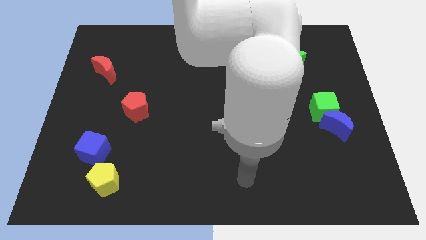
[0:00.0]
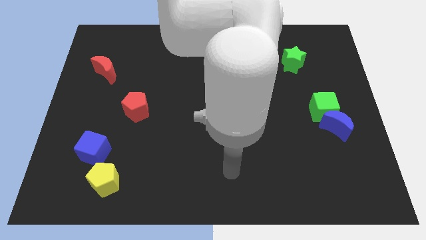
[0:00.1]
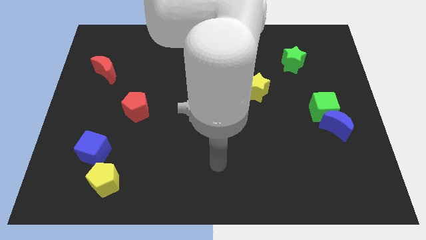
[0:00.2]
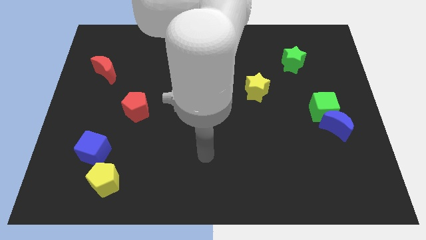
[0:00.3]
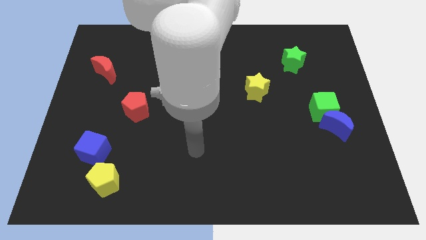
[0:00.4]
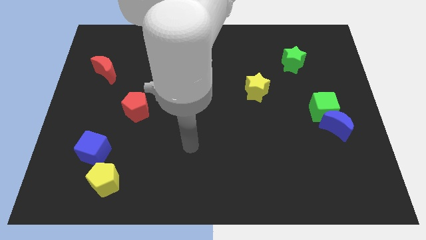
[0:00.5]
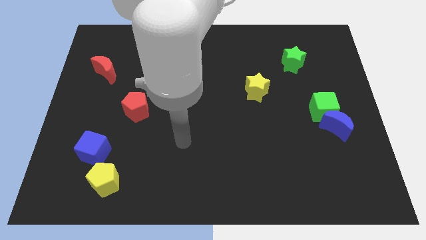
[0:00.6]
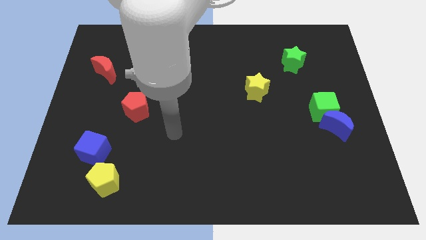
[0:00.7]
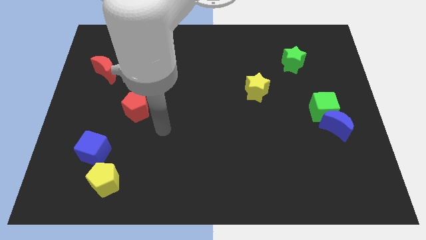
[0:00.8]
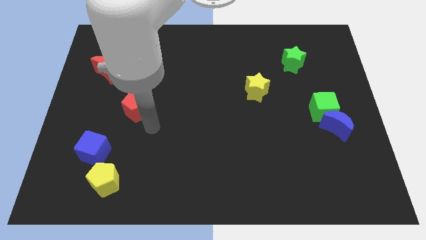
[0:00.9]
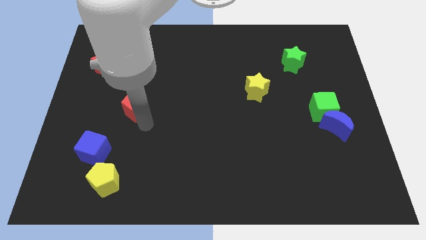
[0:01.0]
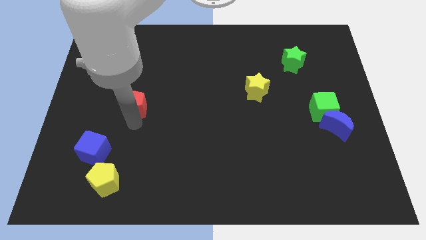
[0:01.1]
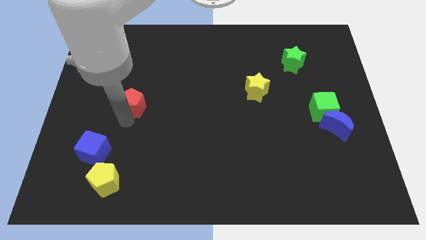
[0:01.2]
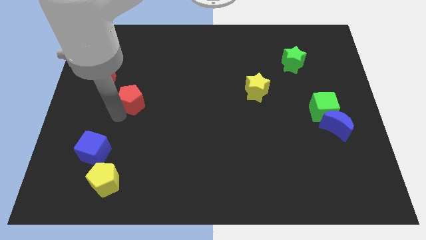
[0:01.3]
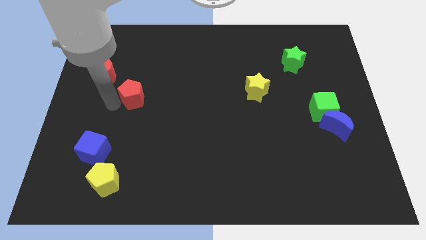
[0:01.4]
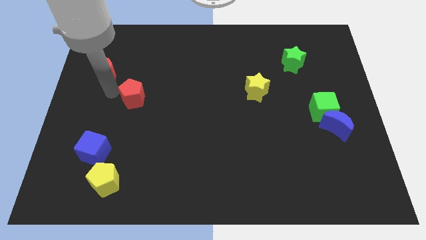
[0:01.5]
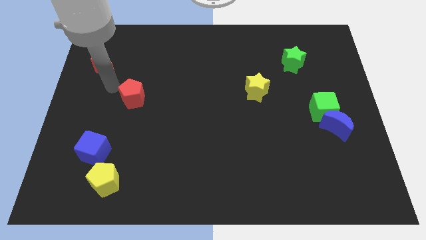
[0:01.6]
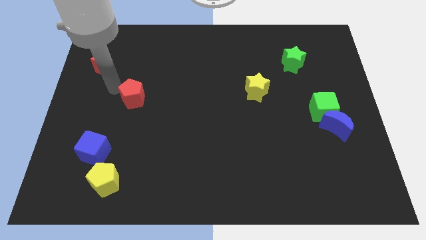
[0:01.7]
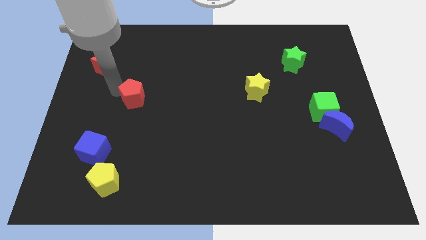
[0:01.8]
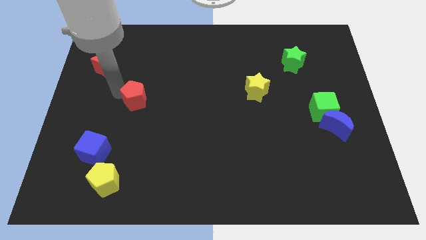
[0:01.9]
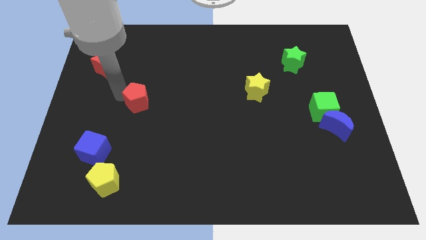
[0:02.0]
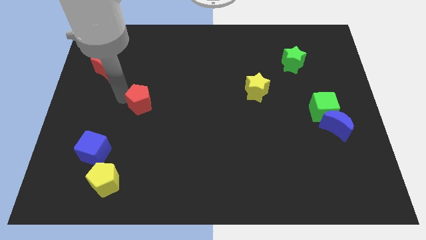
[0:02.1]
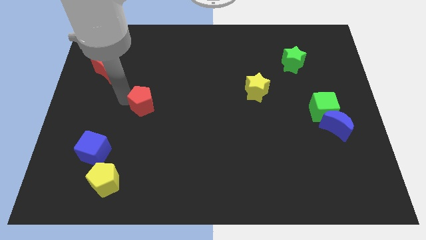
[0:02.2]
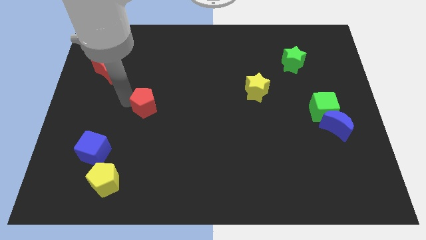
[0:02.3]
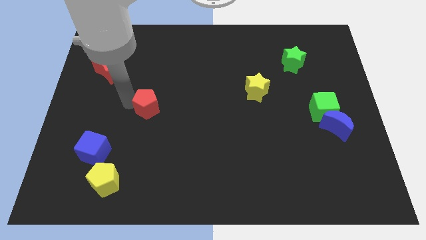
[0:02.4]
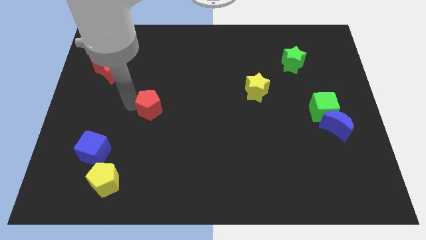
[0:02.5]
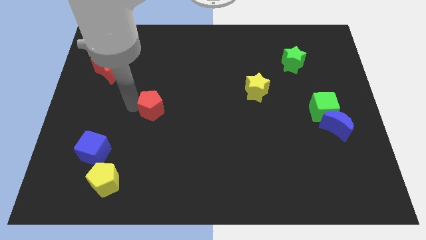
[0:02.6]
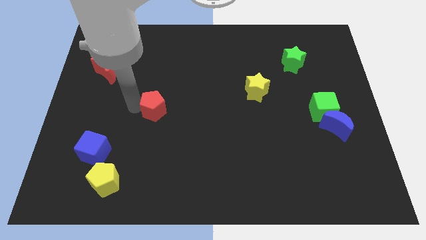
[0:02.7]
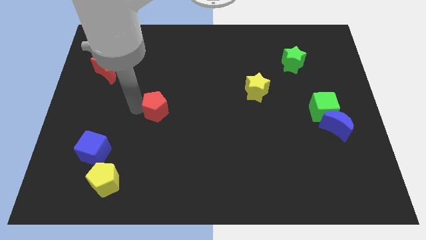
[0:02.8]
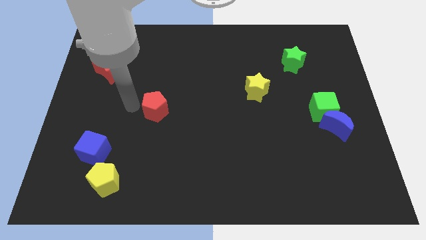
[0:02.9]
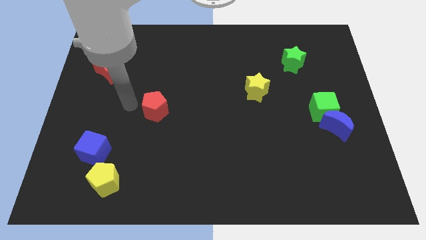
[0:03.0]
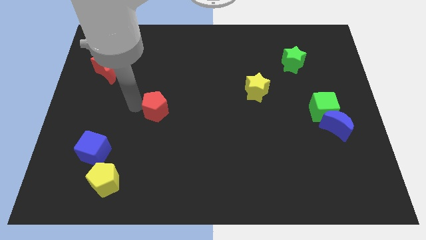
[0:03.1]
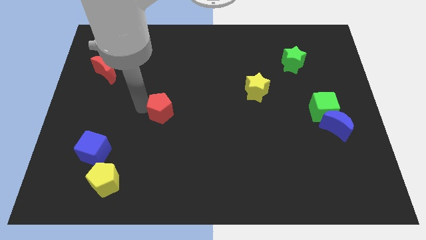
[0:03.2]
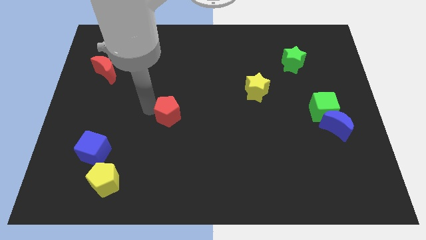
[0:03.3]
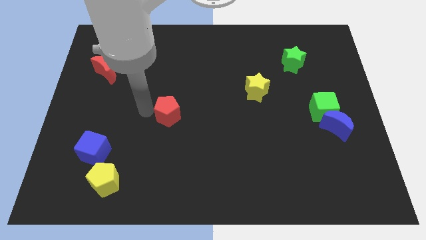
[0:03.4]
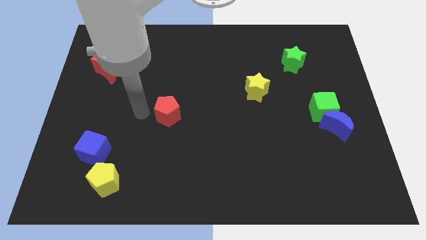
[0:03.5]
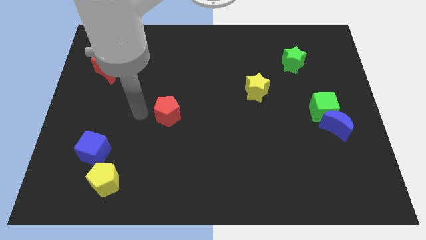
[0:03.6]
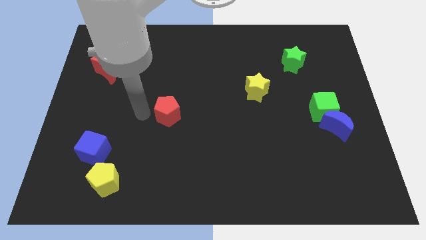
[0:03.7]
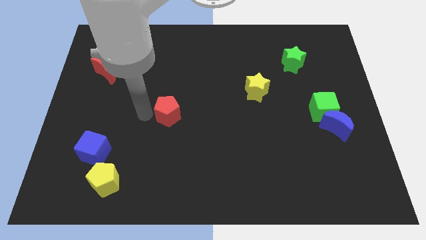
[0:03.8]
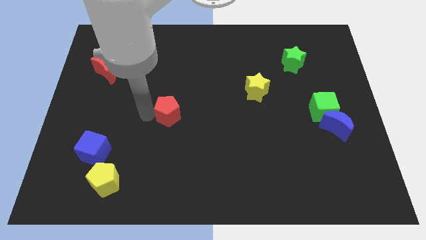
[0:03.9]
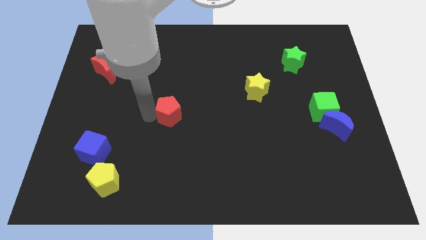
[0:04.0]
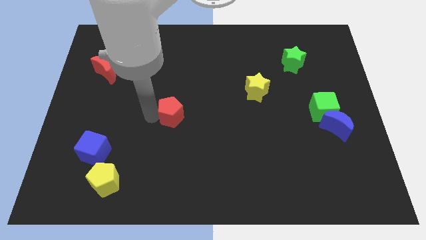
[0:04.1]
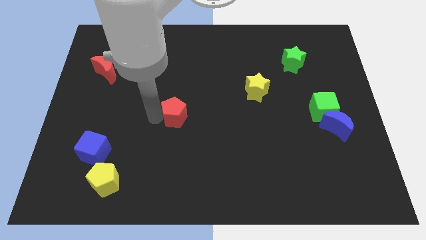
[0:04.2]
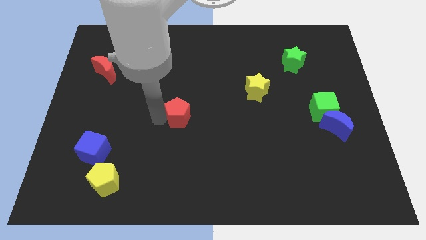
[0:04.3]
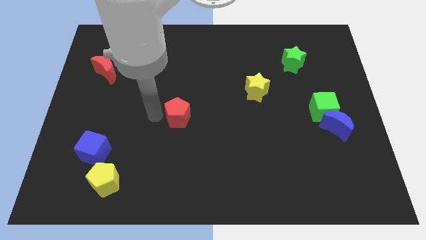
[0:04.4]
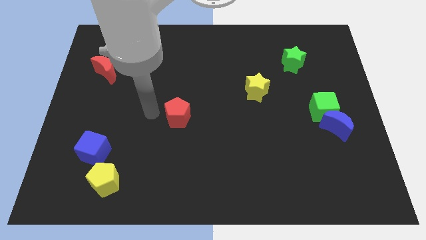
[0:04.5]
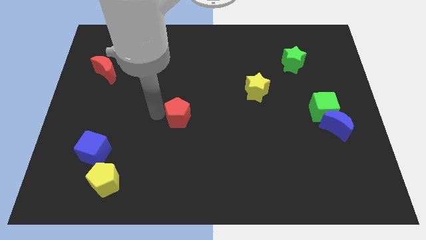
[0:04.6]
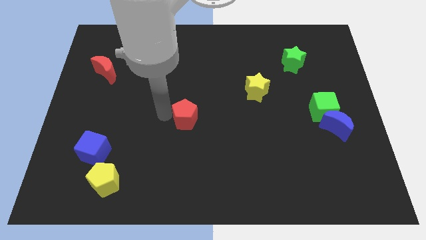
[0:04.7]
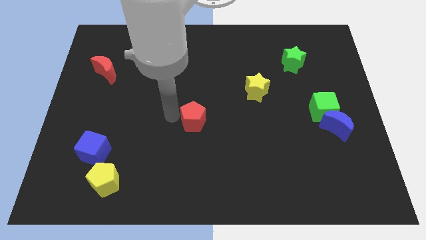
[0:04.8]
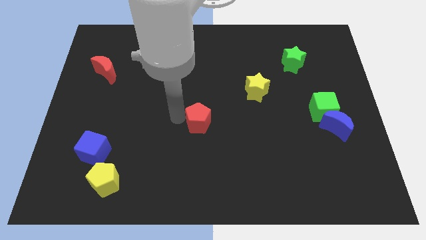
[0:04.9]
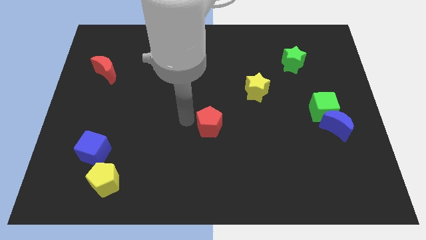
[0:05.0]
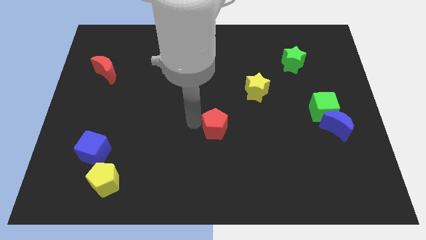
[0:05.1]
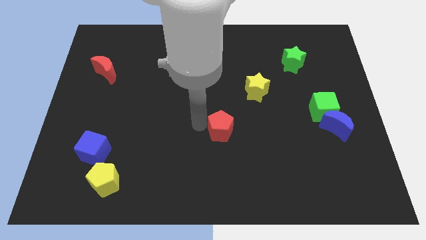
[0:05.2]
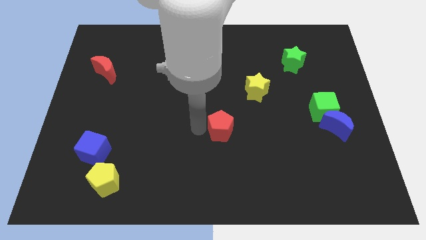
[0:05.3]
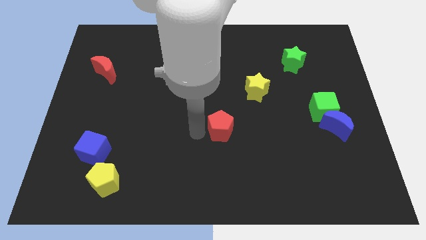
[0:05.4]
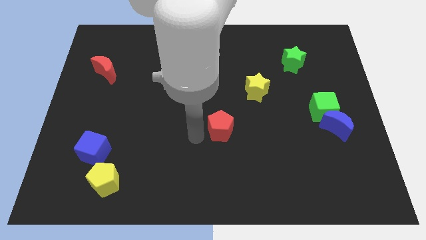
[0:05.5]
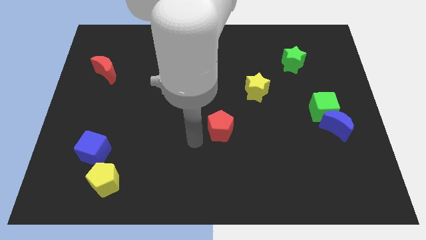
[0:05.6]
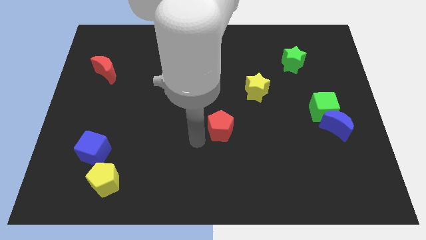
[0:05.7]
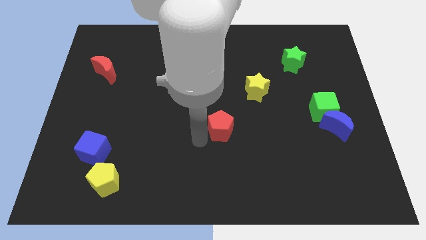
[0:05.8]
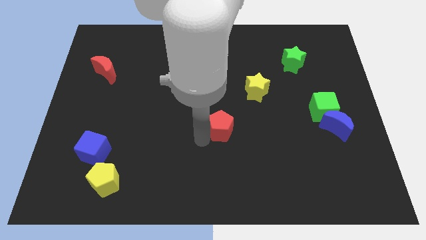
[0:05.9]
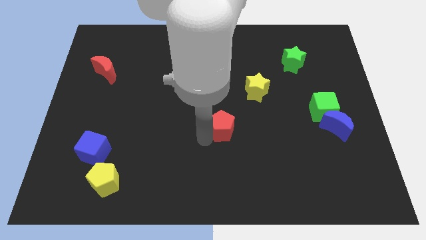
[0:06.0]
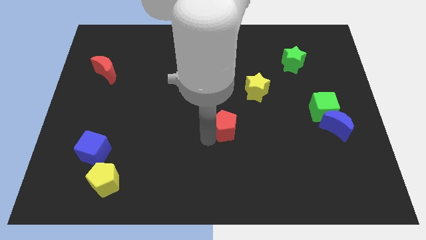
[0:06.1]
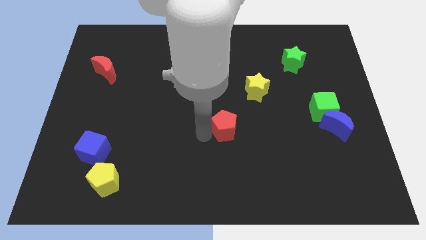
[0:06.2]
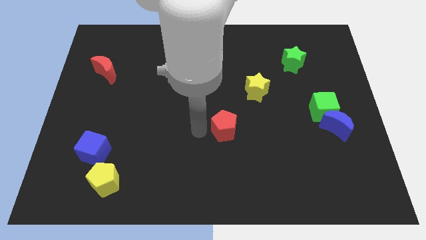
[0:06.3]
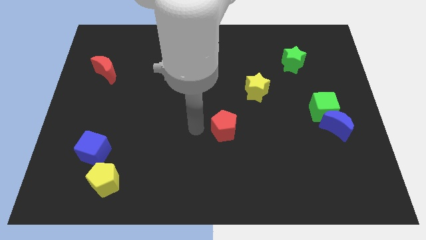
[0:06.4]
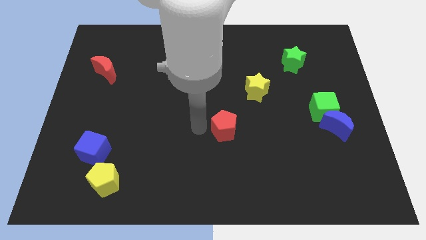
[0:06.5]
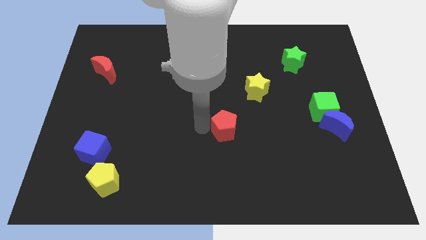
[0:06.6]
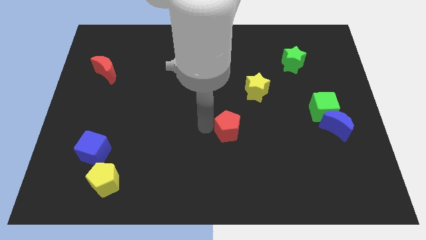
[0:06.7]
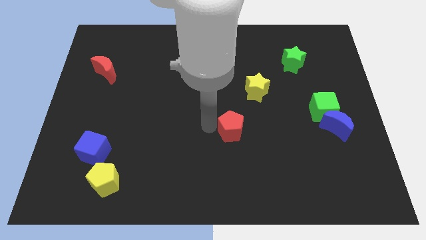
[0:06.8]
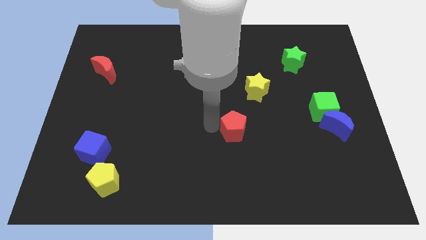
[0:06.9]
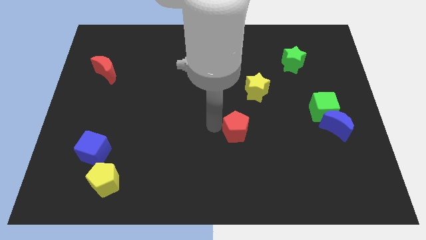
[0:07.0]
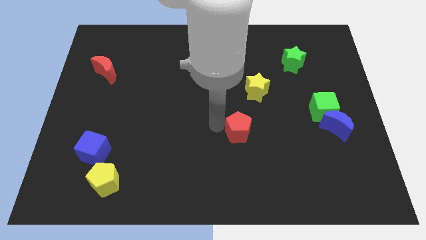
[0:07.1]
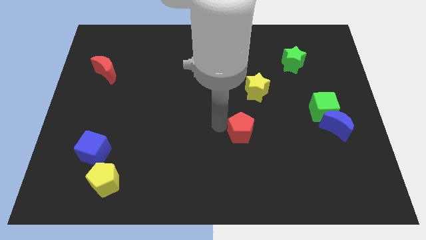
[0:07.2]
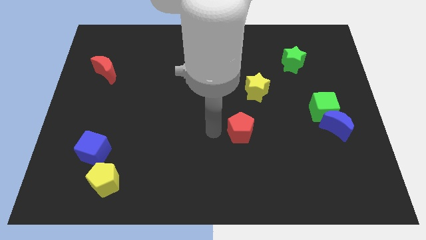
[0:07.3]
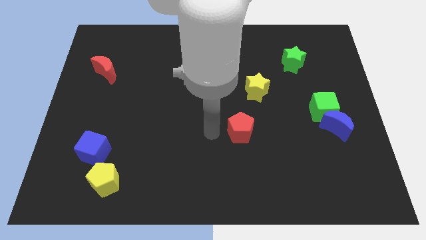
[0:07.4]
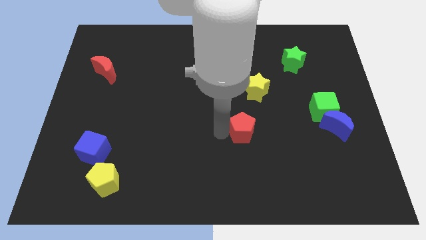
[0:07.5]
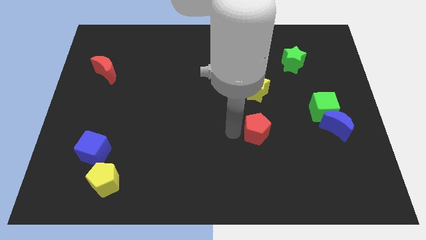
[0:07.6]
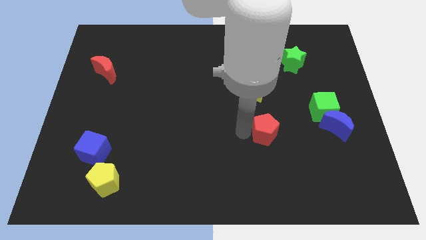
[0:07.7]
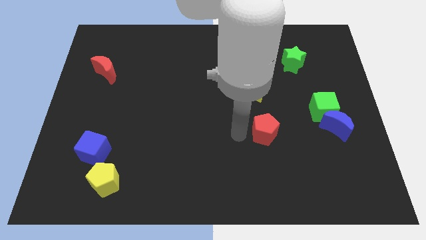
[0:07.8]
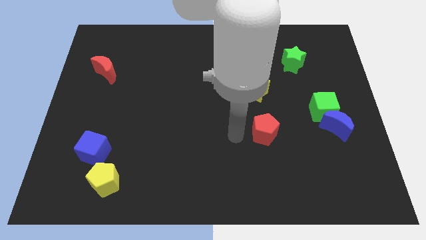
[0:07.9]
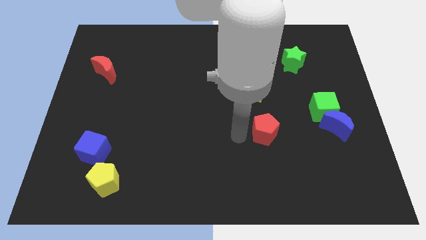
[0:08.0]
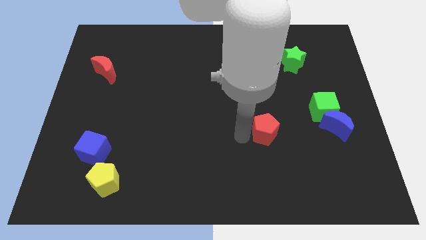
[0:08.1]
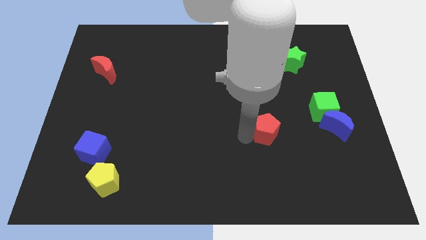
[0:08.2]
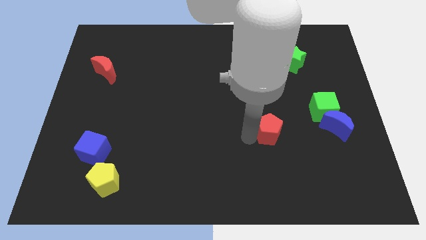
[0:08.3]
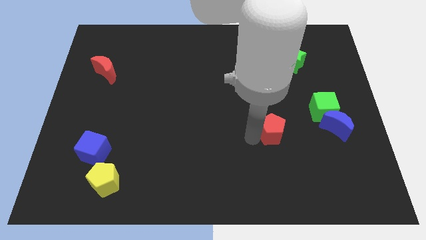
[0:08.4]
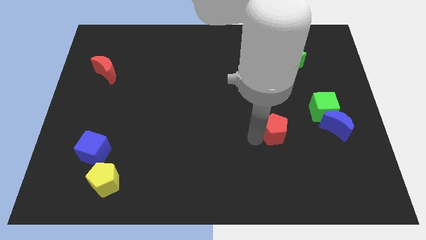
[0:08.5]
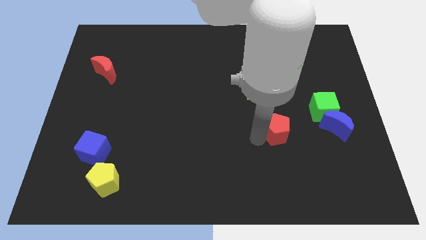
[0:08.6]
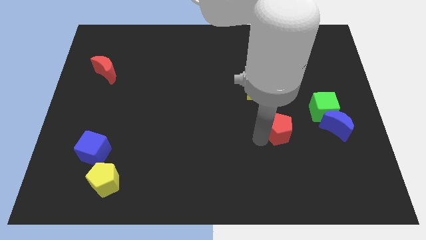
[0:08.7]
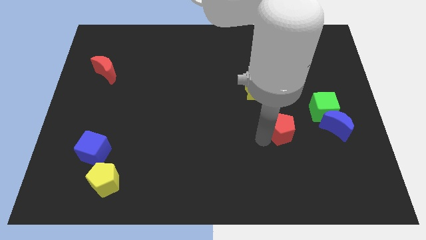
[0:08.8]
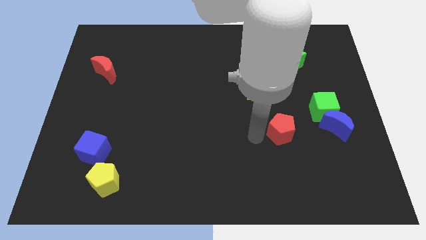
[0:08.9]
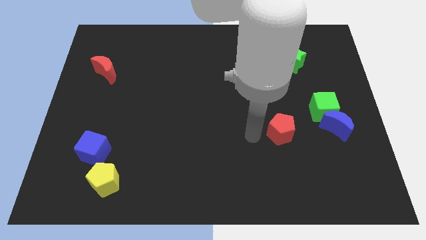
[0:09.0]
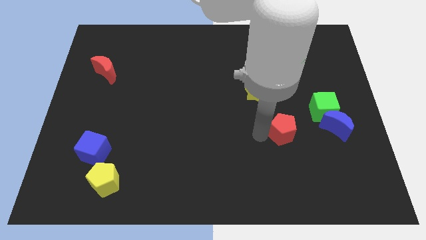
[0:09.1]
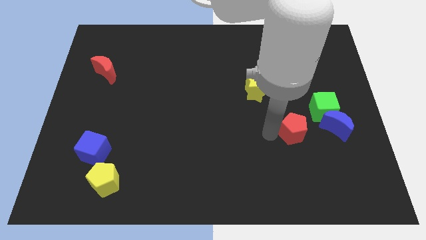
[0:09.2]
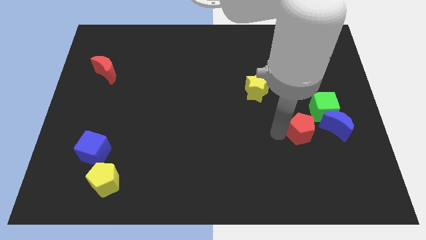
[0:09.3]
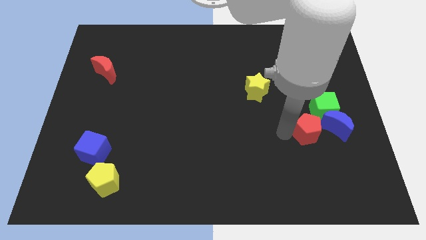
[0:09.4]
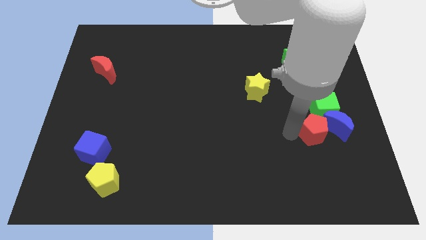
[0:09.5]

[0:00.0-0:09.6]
push the red pentagon next to the blue moon
